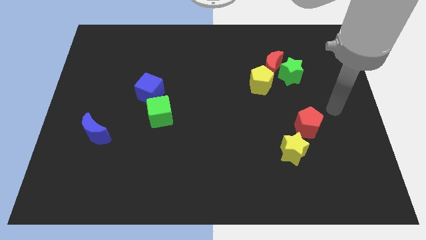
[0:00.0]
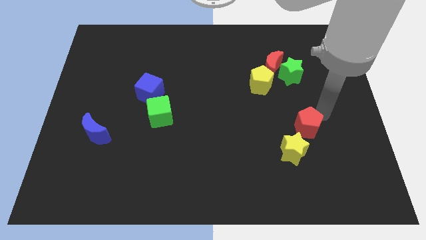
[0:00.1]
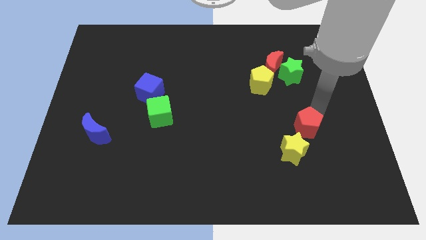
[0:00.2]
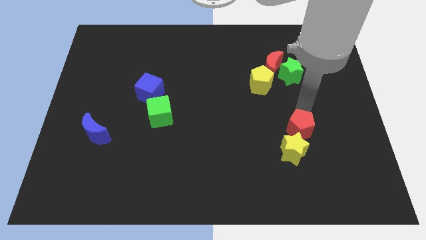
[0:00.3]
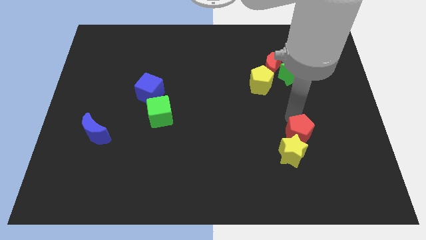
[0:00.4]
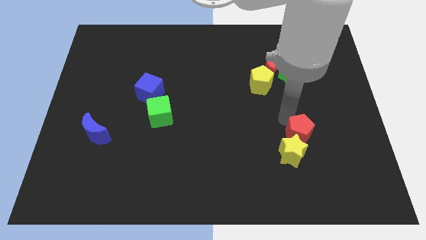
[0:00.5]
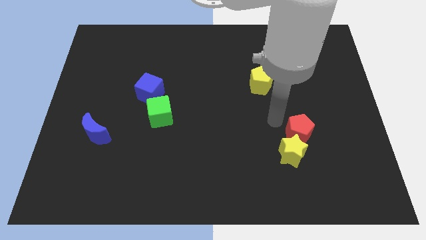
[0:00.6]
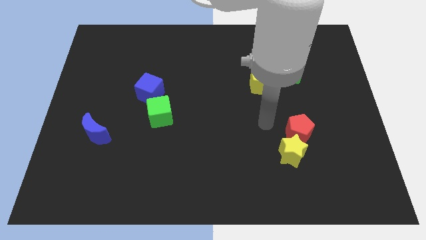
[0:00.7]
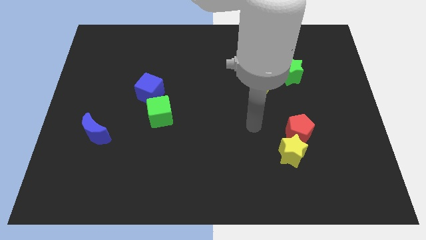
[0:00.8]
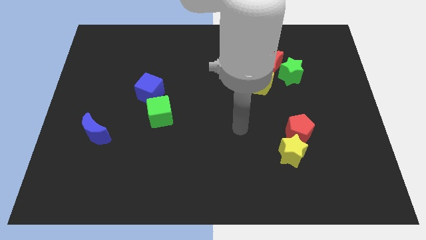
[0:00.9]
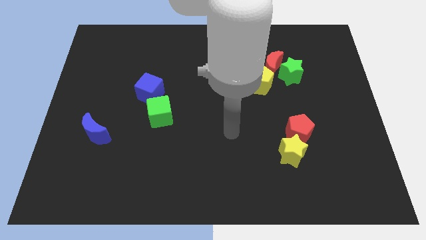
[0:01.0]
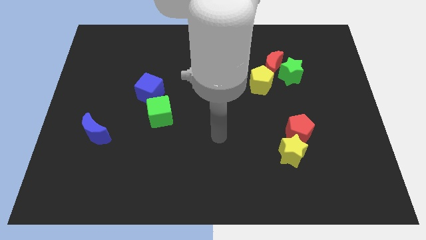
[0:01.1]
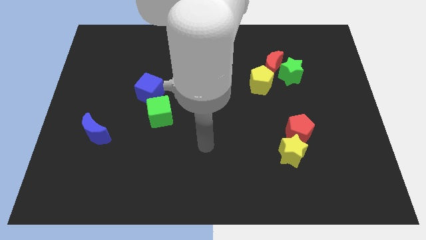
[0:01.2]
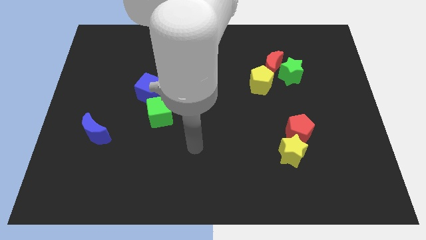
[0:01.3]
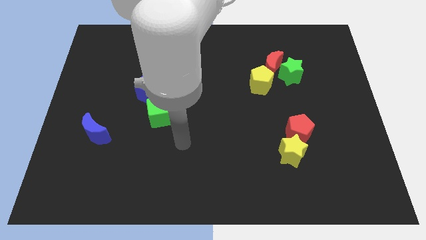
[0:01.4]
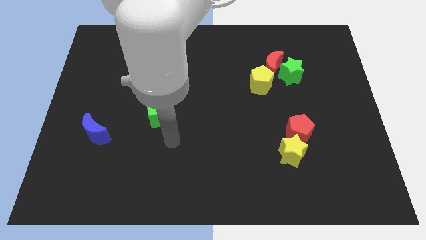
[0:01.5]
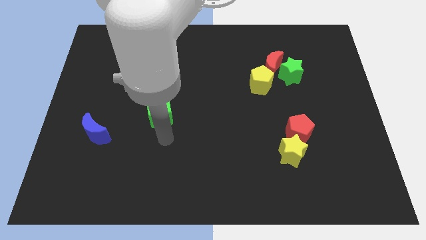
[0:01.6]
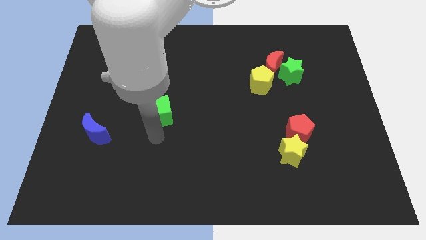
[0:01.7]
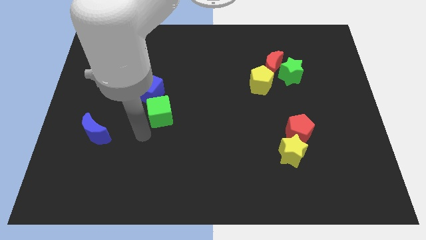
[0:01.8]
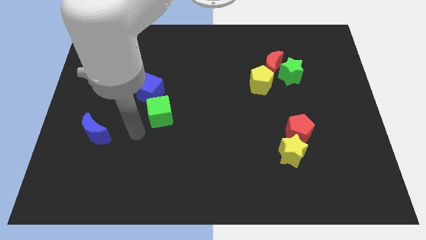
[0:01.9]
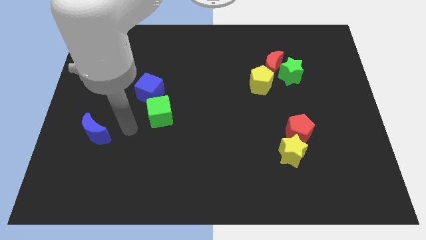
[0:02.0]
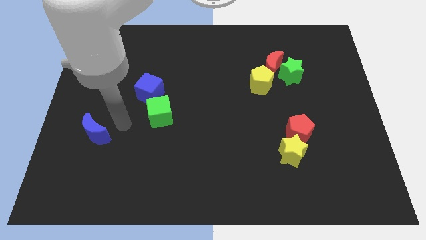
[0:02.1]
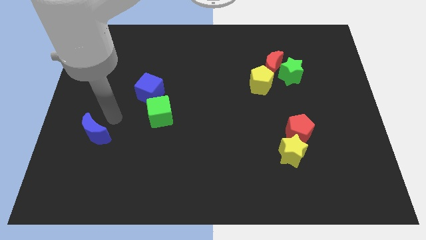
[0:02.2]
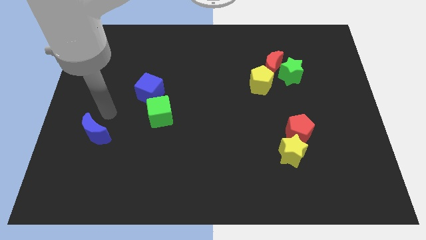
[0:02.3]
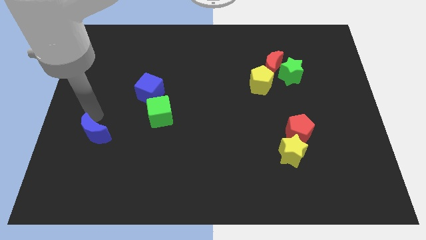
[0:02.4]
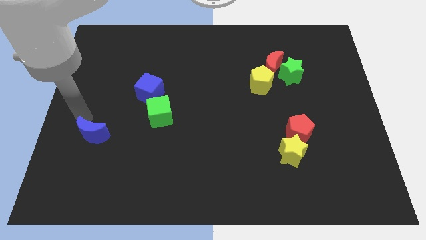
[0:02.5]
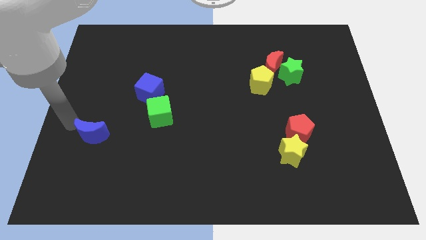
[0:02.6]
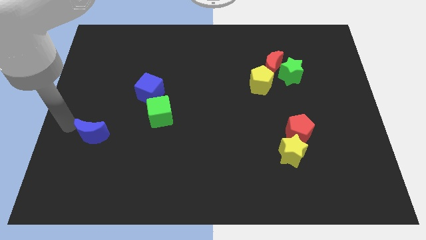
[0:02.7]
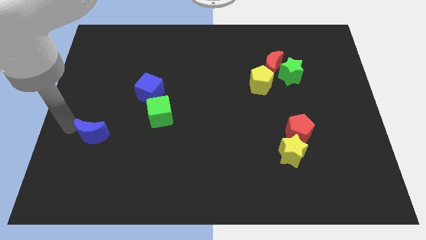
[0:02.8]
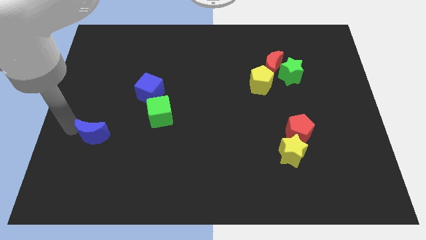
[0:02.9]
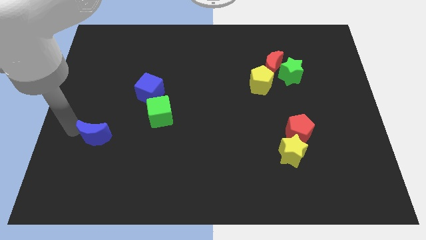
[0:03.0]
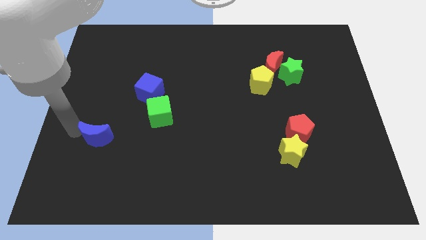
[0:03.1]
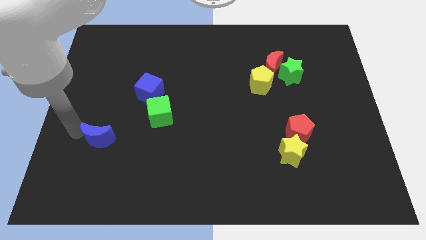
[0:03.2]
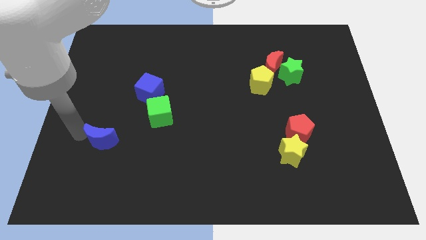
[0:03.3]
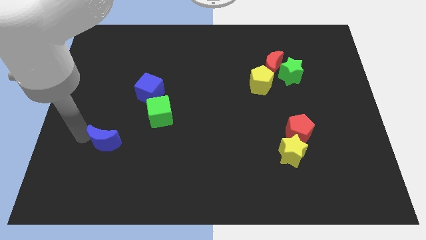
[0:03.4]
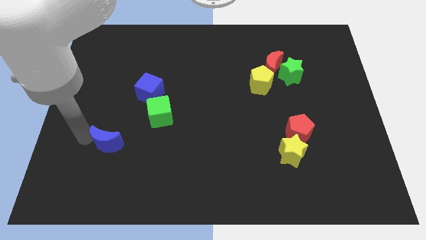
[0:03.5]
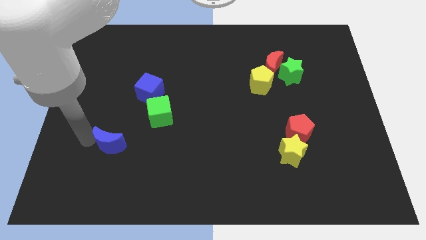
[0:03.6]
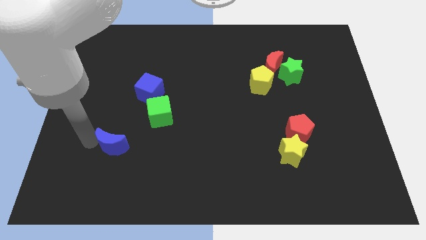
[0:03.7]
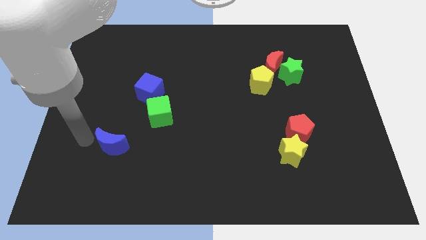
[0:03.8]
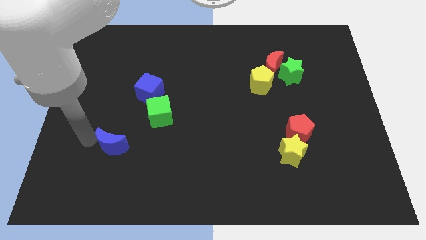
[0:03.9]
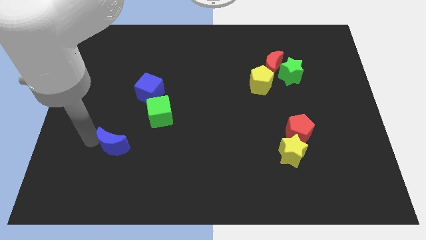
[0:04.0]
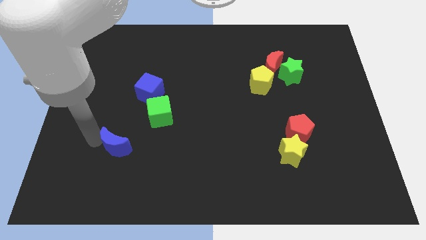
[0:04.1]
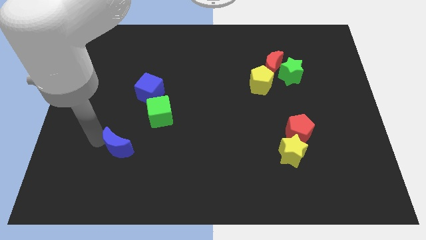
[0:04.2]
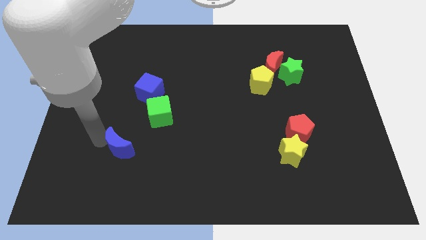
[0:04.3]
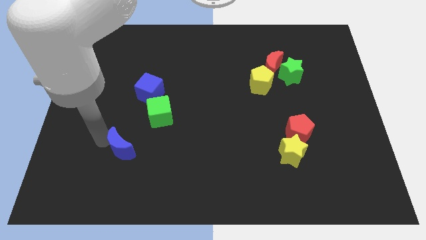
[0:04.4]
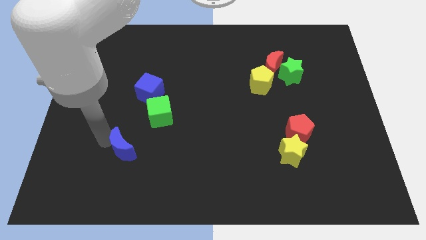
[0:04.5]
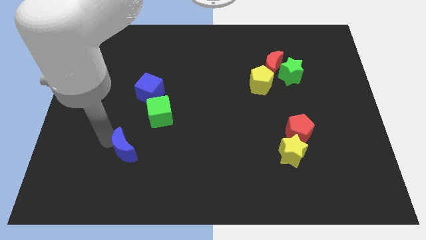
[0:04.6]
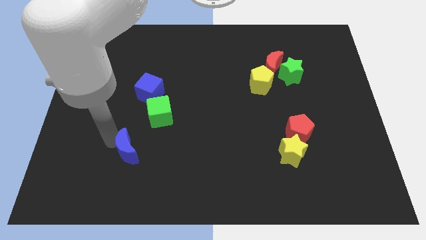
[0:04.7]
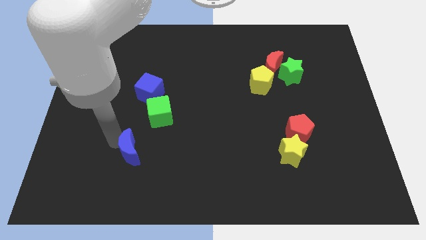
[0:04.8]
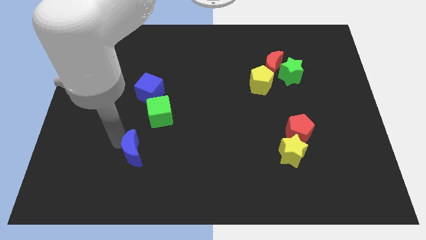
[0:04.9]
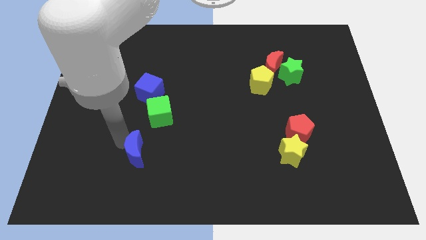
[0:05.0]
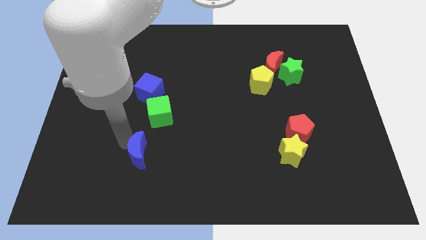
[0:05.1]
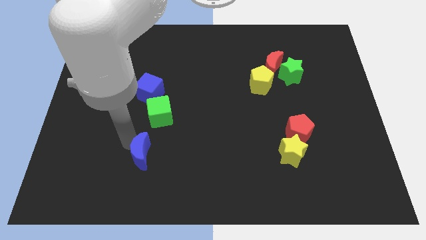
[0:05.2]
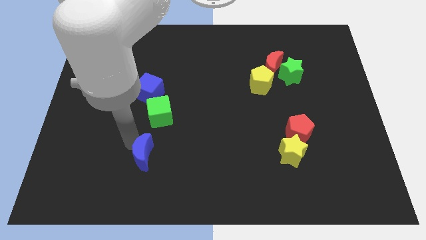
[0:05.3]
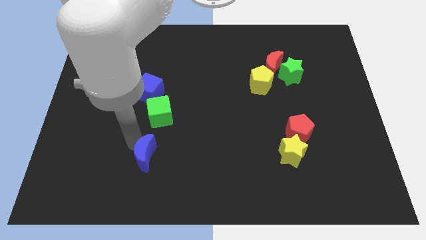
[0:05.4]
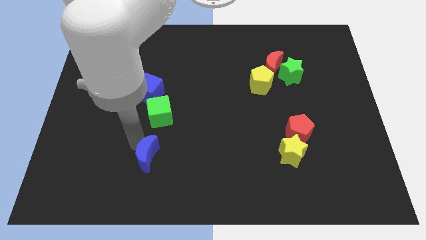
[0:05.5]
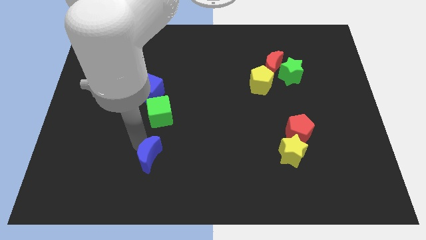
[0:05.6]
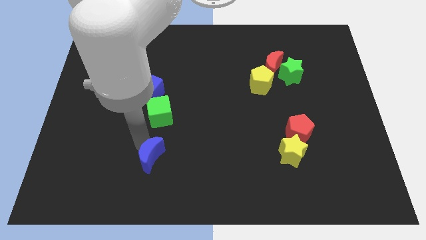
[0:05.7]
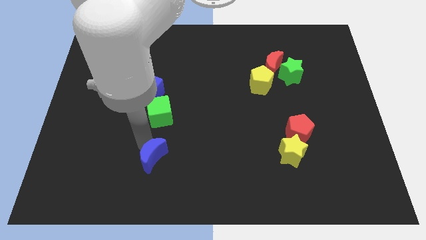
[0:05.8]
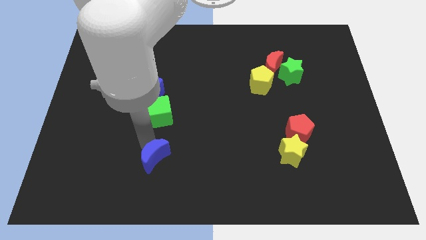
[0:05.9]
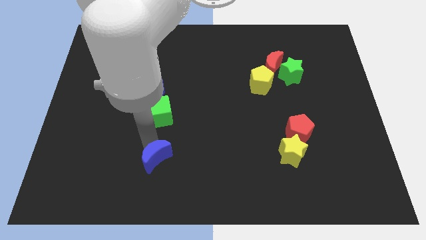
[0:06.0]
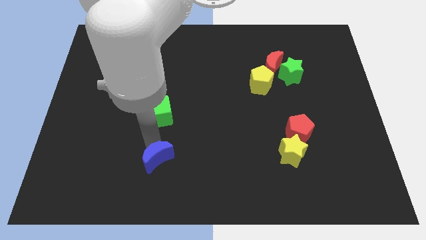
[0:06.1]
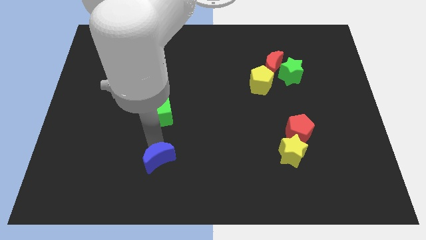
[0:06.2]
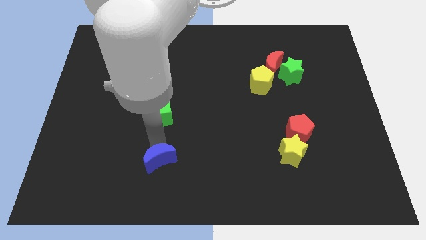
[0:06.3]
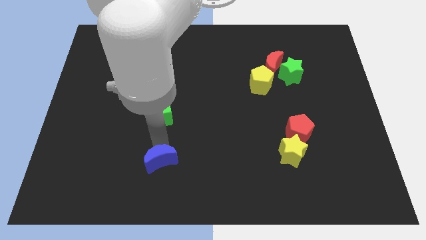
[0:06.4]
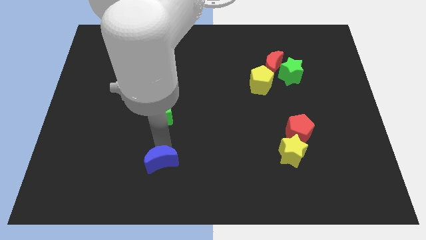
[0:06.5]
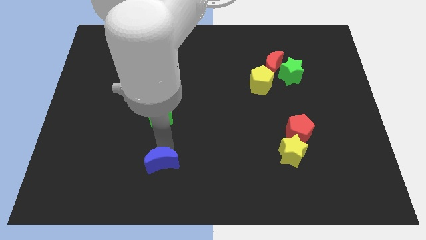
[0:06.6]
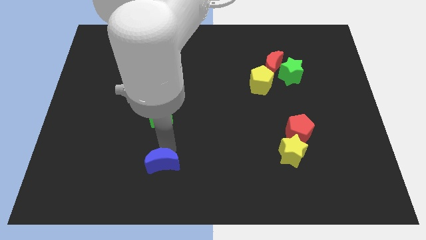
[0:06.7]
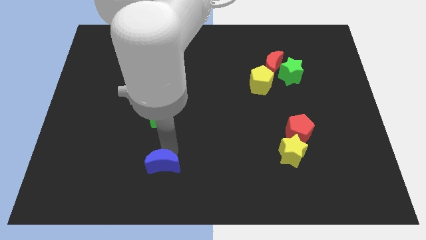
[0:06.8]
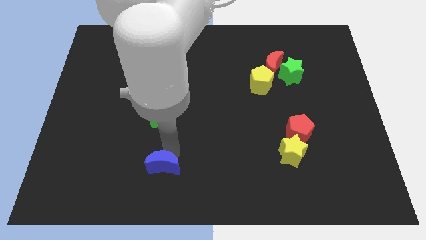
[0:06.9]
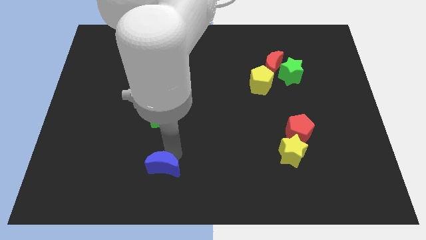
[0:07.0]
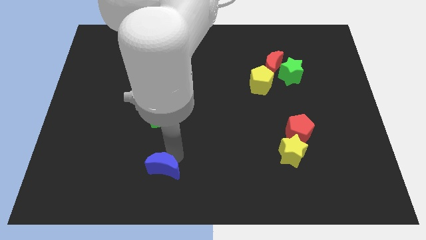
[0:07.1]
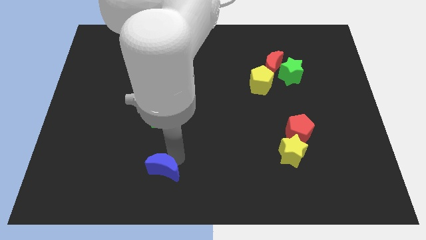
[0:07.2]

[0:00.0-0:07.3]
slide the blue moon to the bottom
